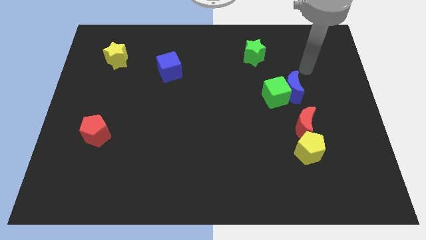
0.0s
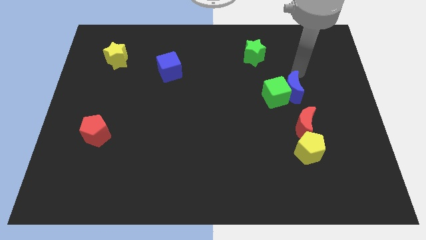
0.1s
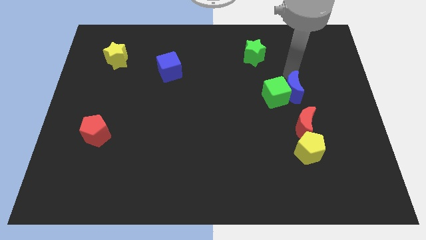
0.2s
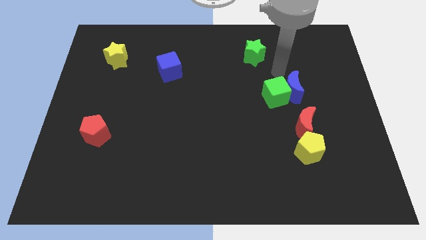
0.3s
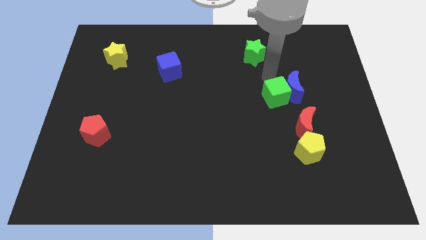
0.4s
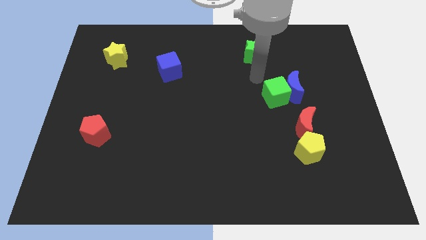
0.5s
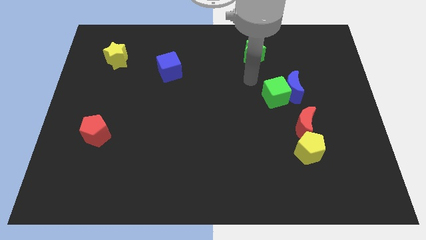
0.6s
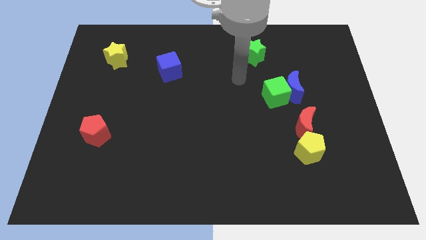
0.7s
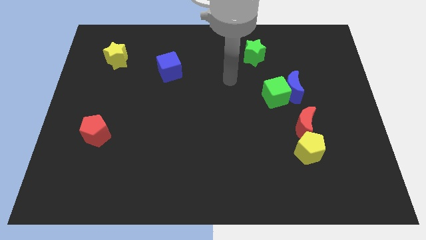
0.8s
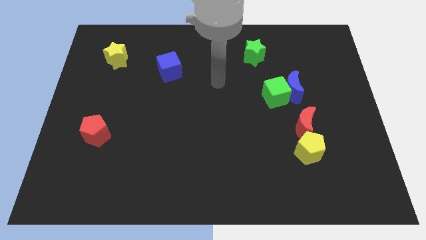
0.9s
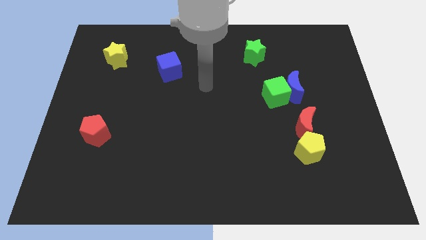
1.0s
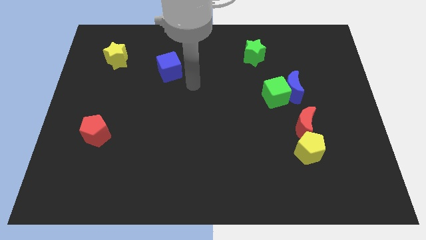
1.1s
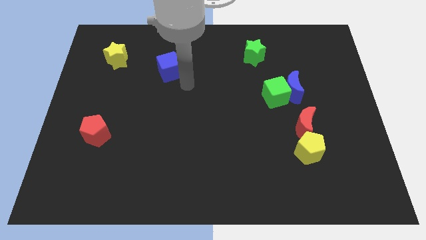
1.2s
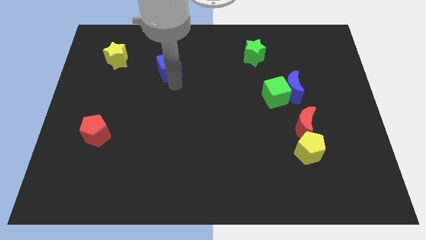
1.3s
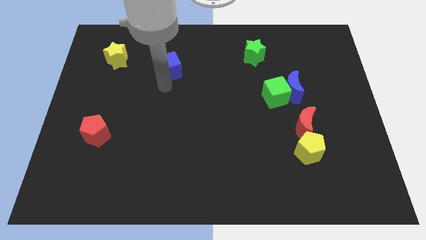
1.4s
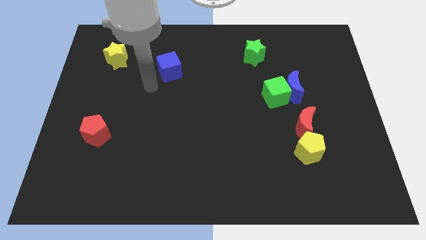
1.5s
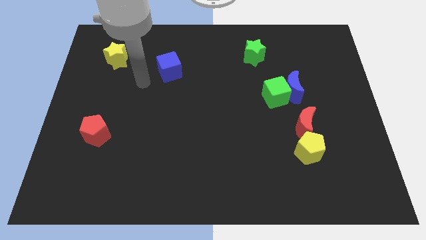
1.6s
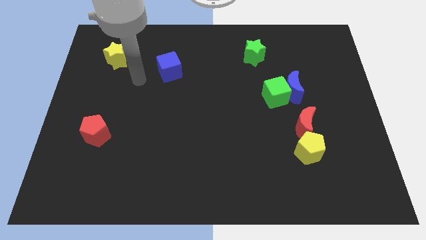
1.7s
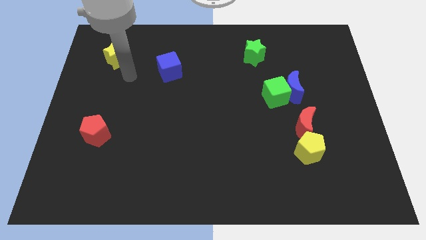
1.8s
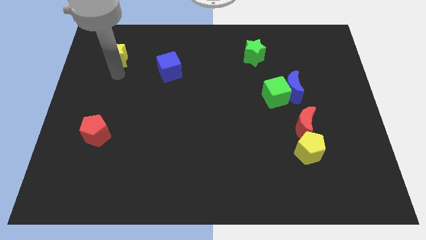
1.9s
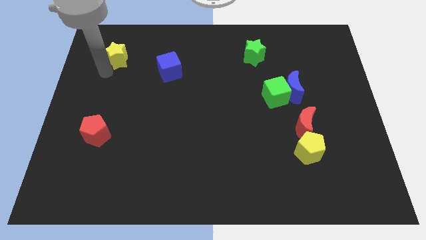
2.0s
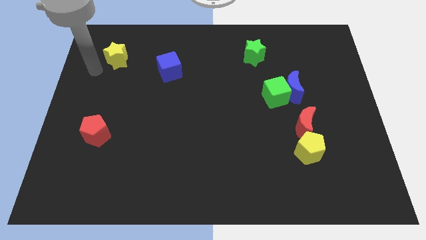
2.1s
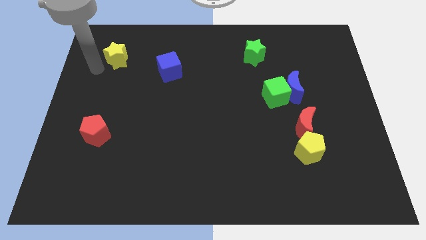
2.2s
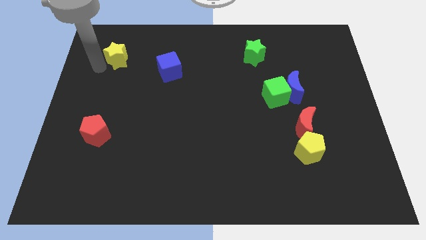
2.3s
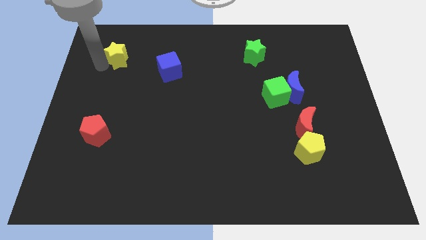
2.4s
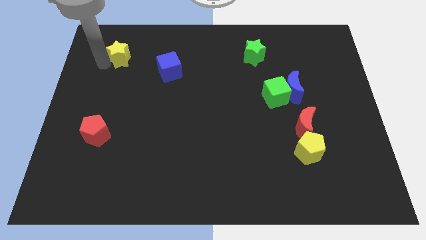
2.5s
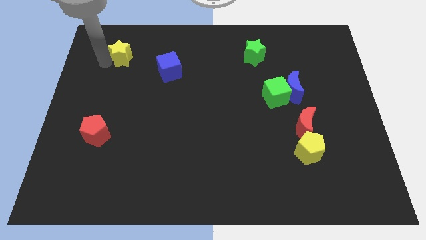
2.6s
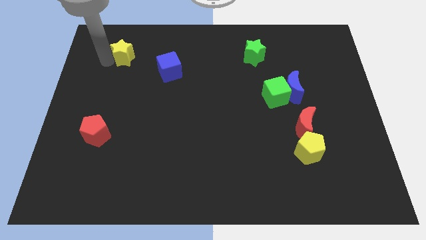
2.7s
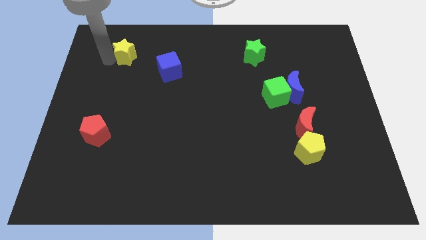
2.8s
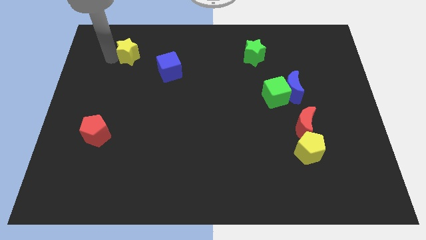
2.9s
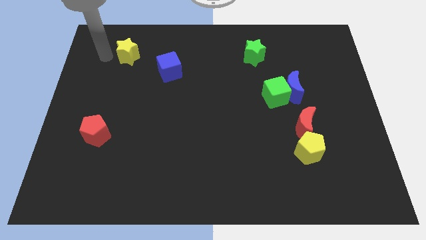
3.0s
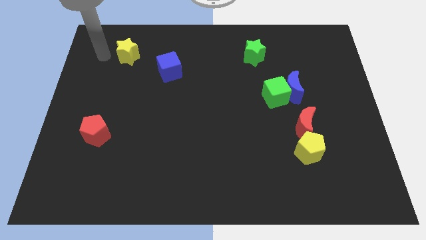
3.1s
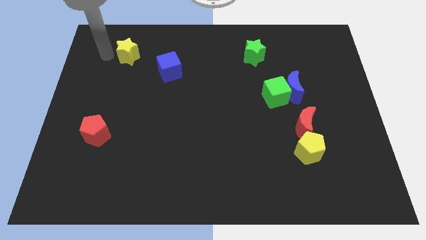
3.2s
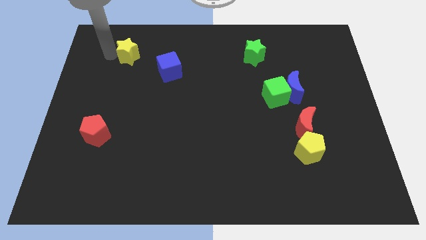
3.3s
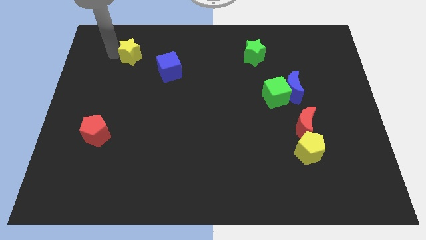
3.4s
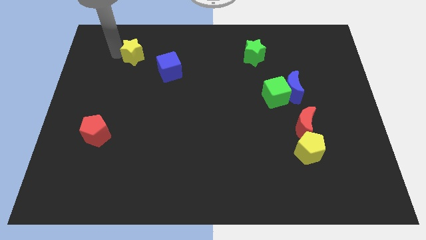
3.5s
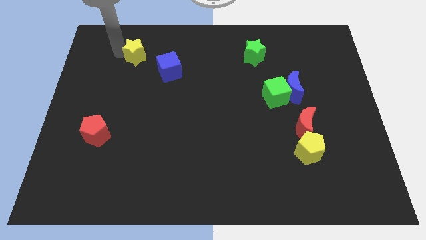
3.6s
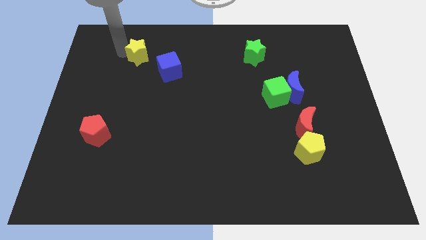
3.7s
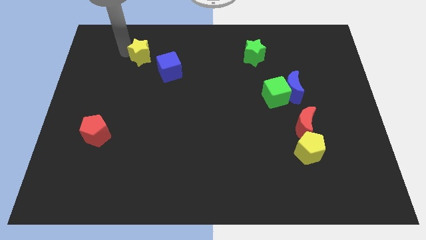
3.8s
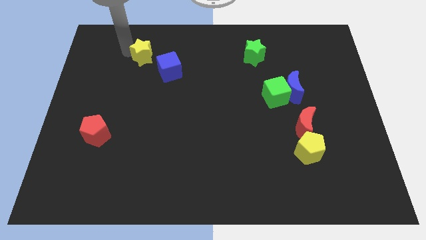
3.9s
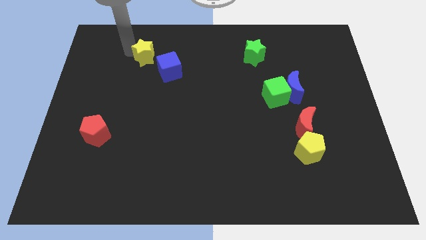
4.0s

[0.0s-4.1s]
slightly move the yellow star right

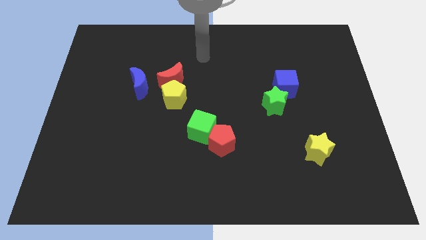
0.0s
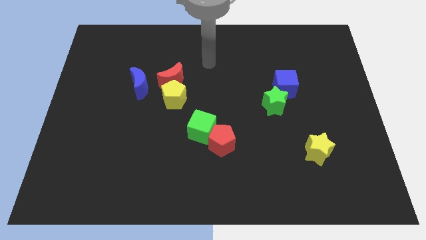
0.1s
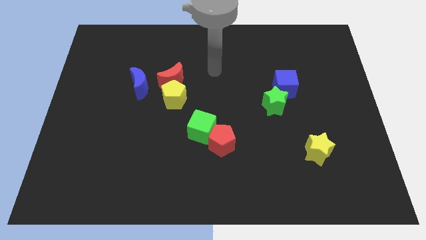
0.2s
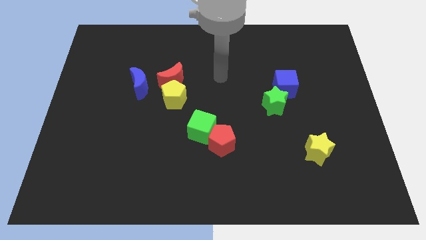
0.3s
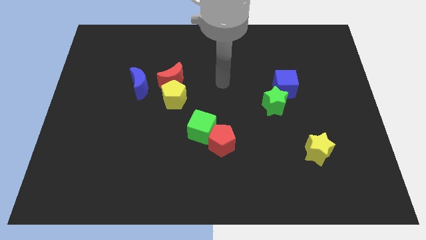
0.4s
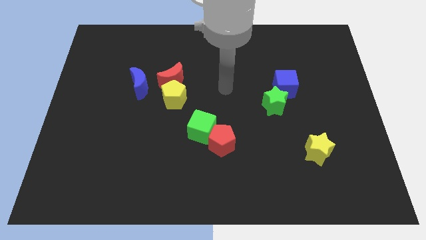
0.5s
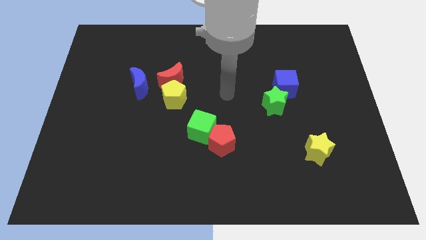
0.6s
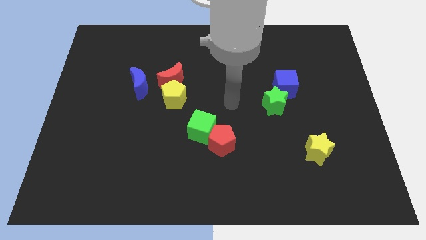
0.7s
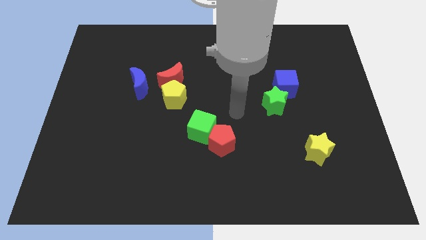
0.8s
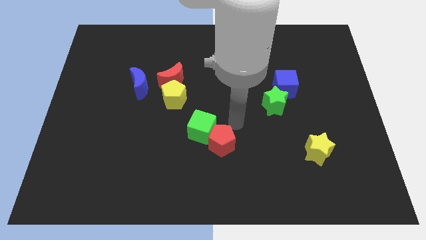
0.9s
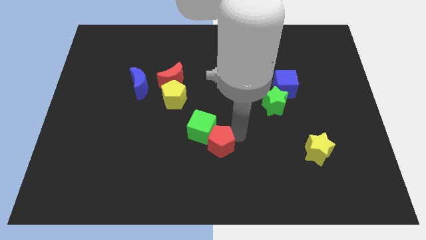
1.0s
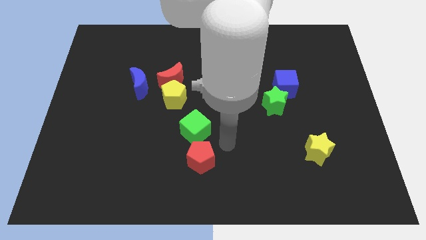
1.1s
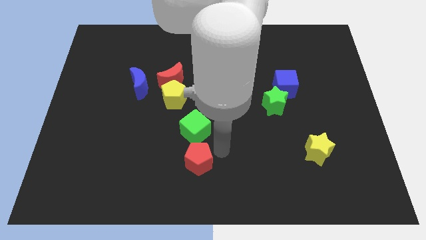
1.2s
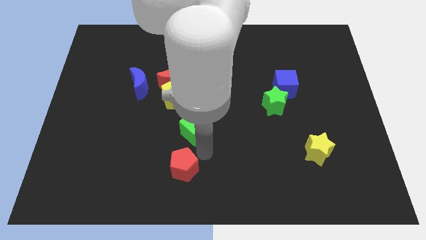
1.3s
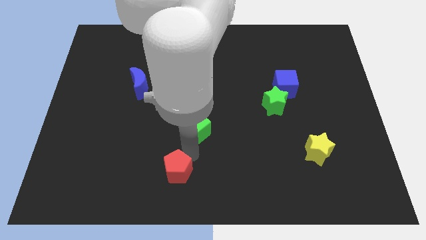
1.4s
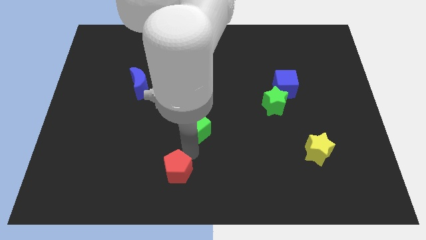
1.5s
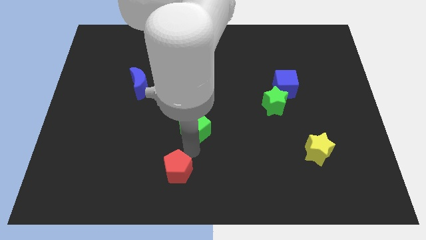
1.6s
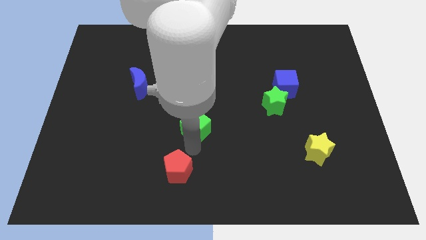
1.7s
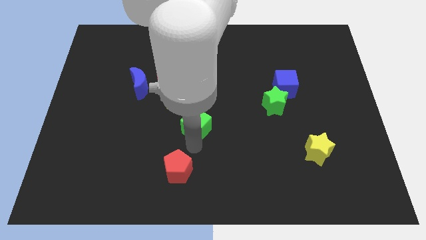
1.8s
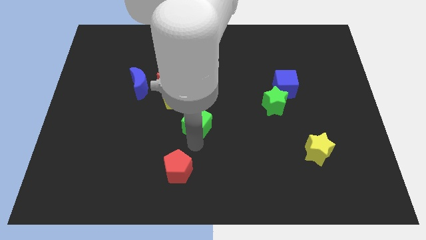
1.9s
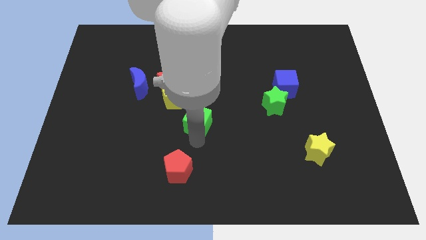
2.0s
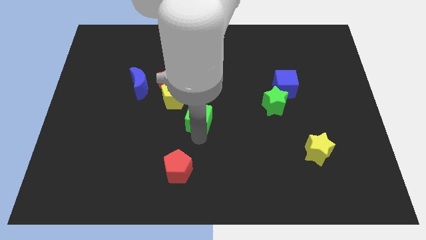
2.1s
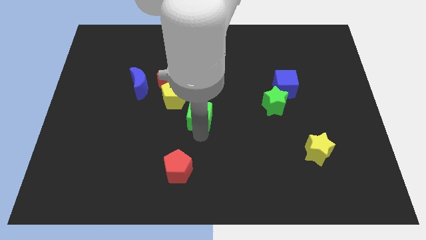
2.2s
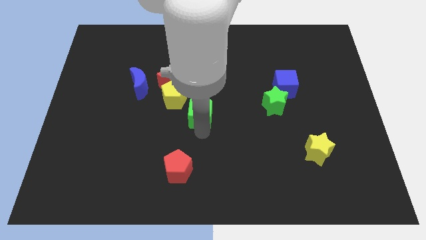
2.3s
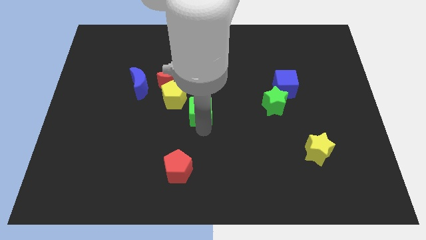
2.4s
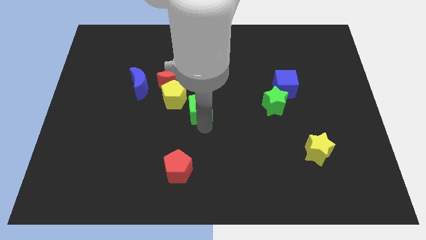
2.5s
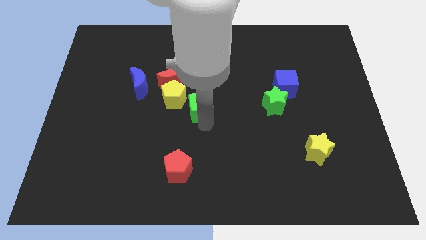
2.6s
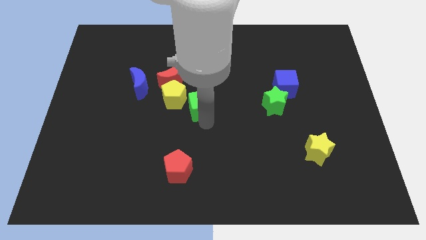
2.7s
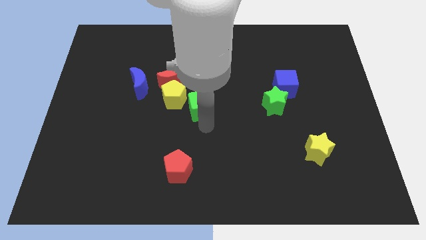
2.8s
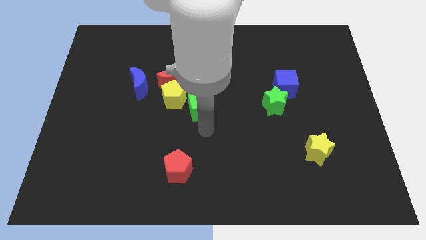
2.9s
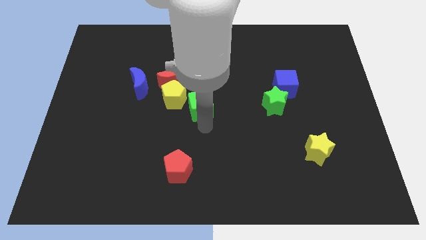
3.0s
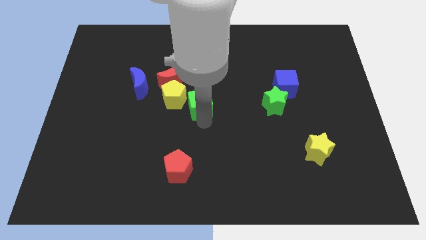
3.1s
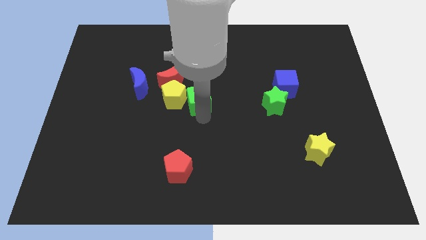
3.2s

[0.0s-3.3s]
push the green cube up a little bit

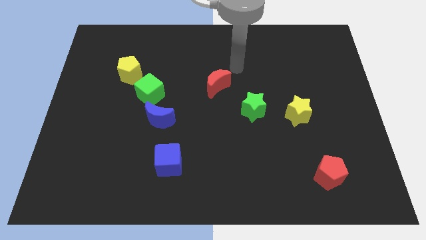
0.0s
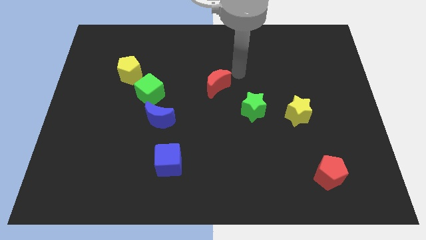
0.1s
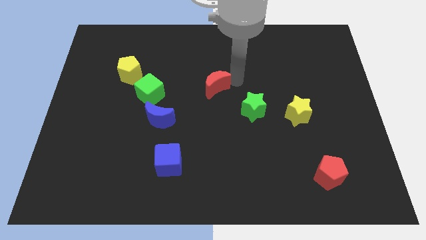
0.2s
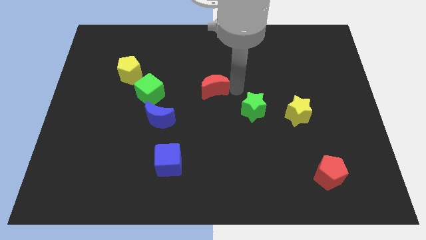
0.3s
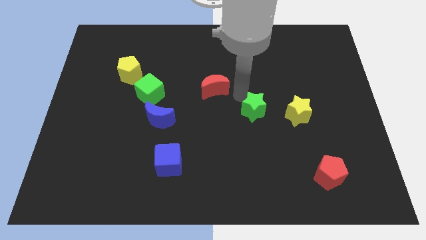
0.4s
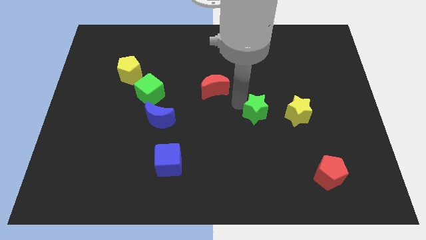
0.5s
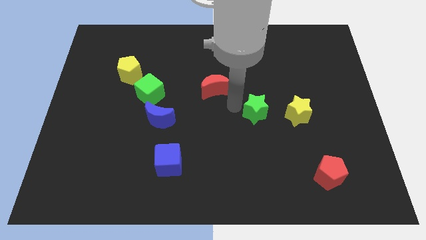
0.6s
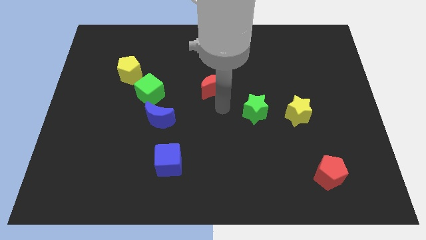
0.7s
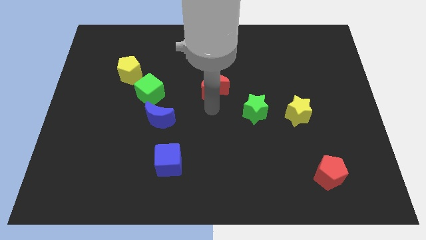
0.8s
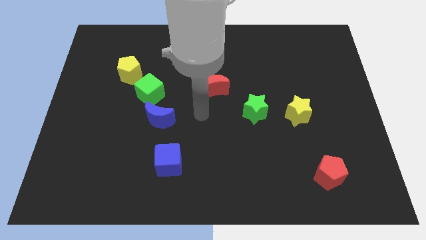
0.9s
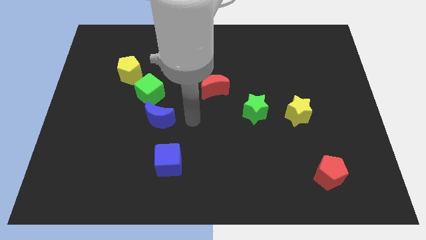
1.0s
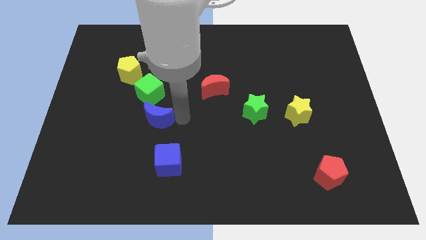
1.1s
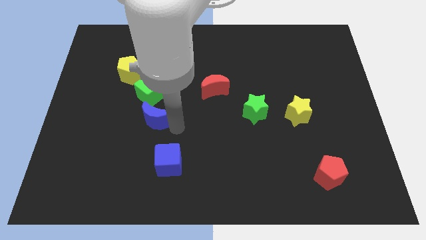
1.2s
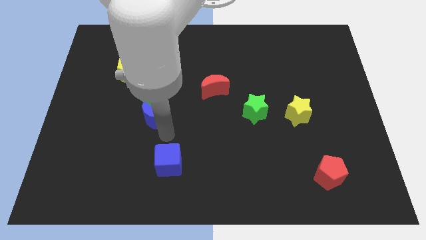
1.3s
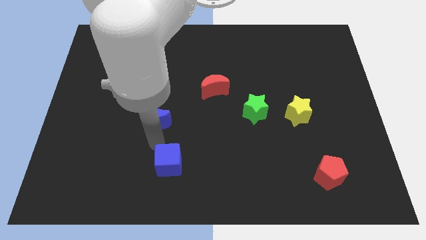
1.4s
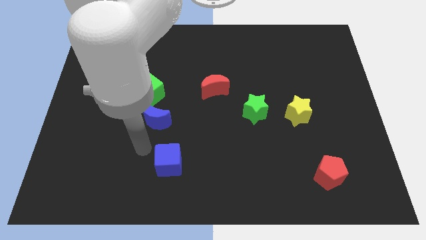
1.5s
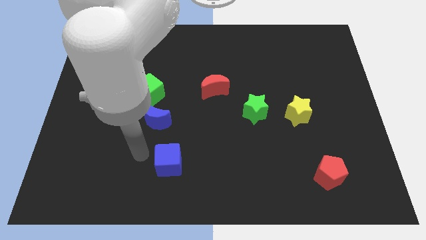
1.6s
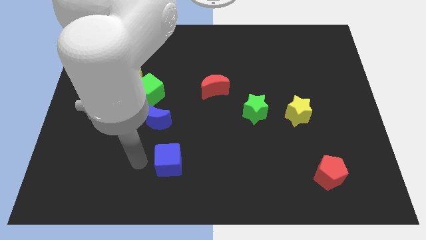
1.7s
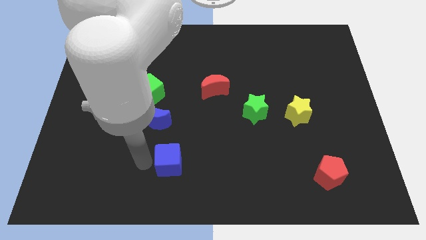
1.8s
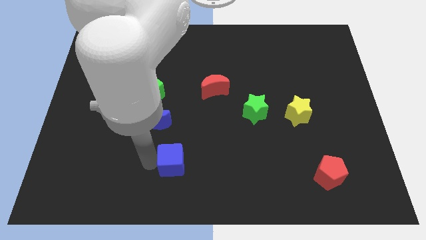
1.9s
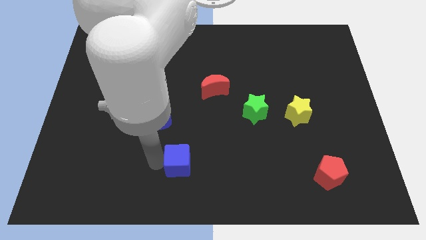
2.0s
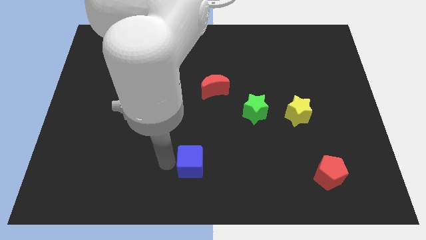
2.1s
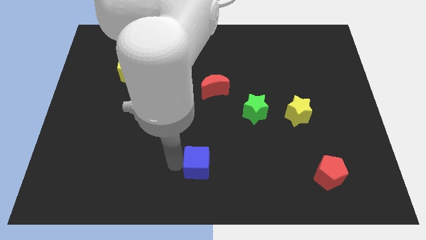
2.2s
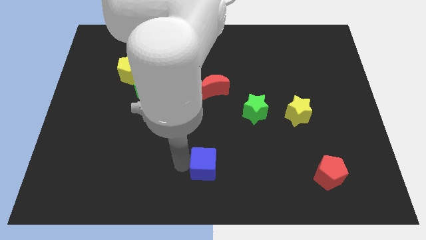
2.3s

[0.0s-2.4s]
slightly slide the blue cube to the right
